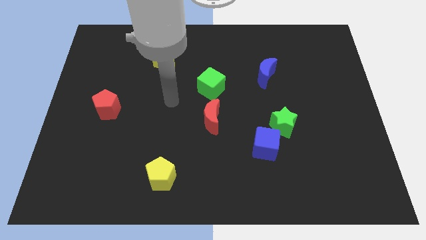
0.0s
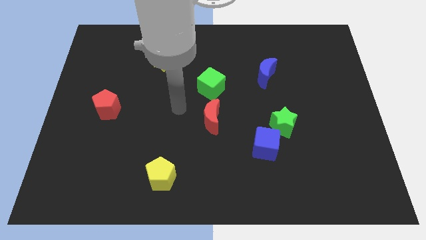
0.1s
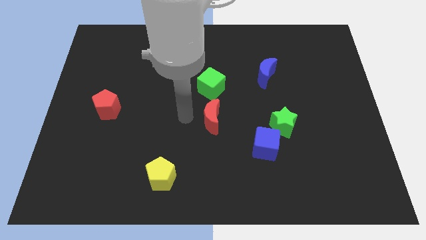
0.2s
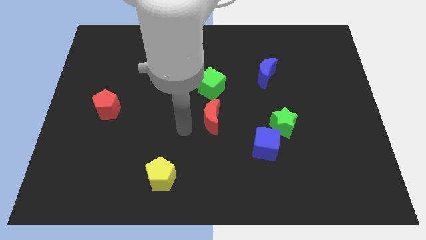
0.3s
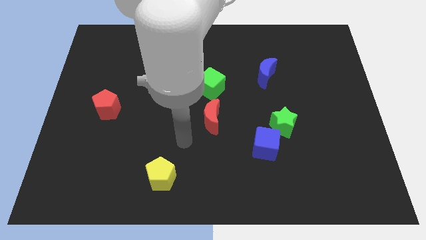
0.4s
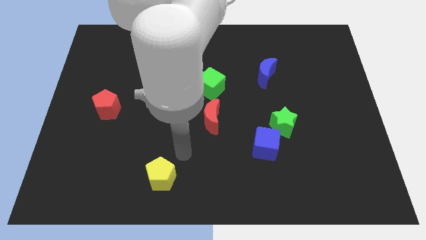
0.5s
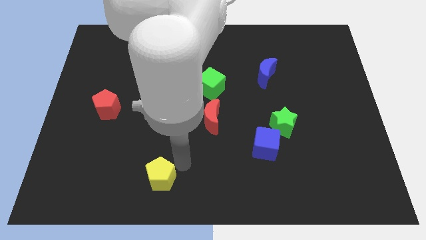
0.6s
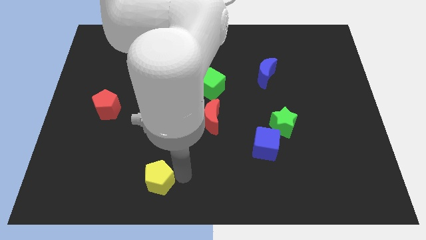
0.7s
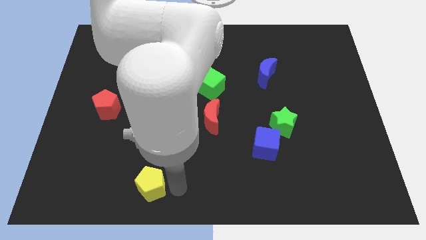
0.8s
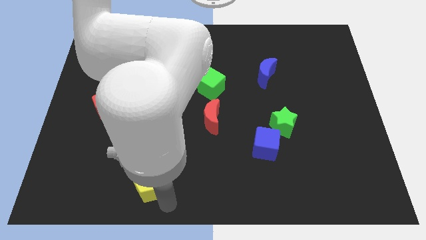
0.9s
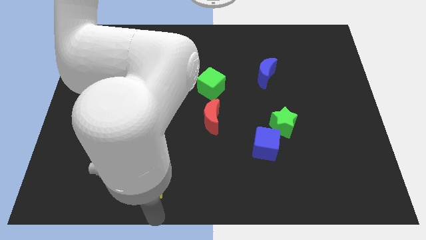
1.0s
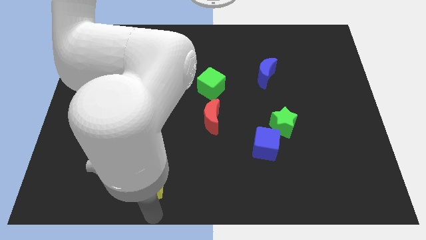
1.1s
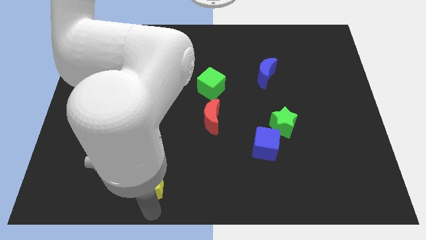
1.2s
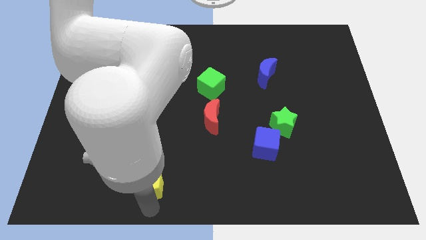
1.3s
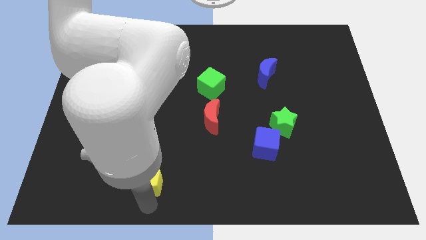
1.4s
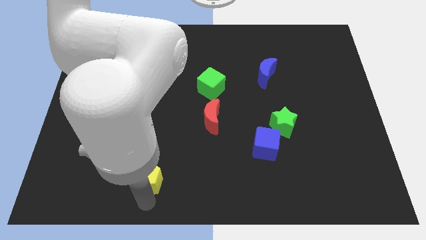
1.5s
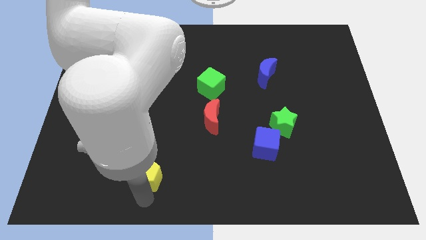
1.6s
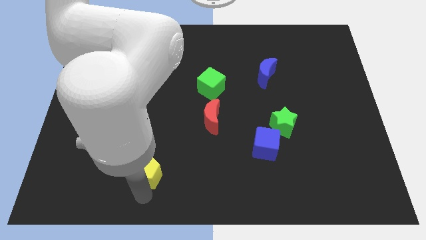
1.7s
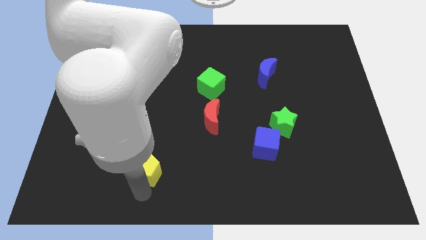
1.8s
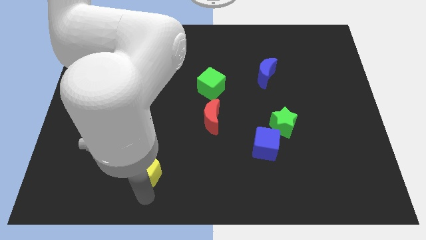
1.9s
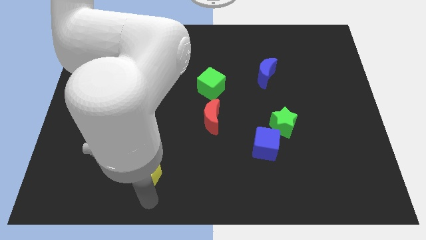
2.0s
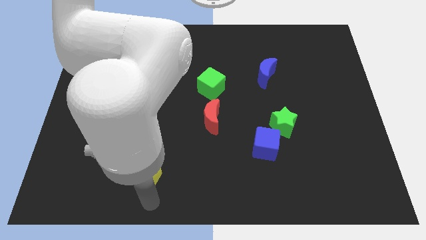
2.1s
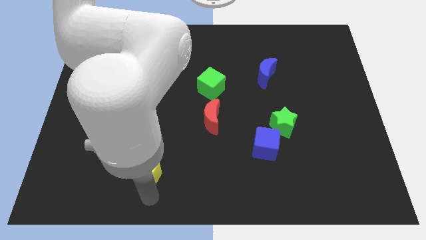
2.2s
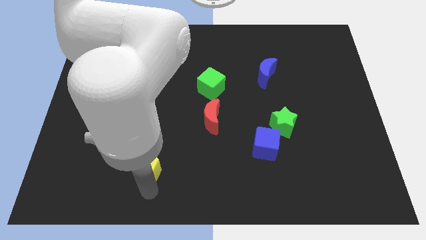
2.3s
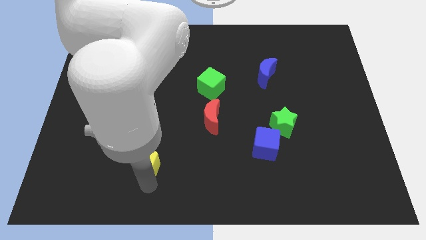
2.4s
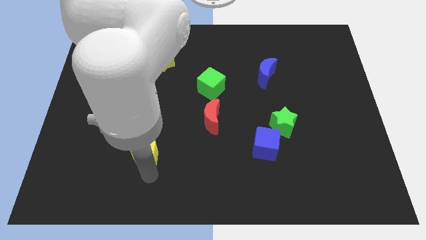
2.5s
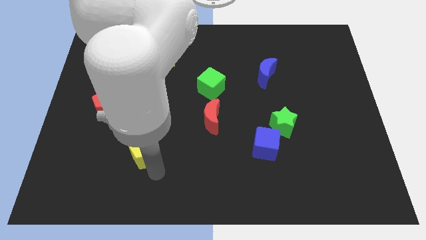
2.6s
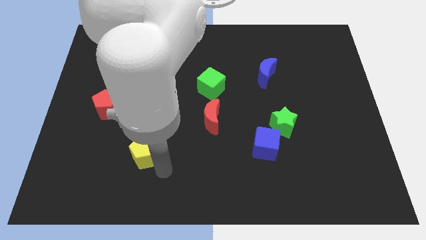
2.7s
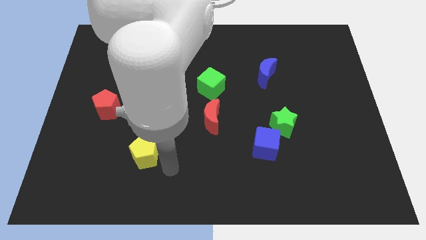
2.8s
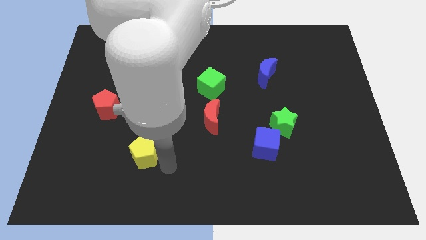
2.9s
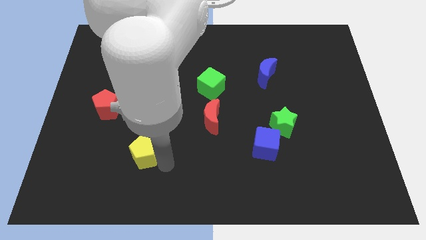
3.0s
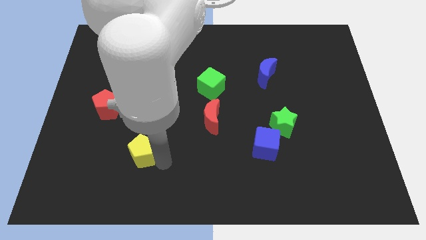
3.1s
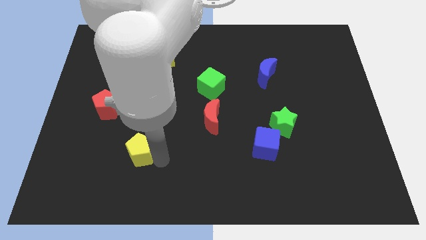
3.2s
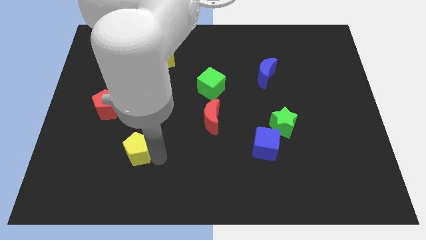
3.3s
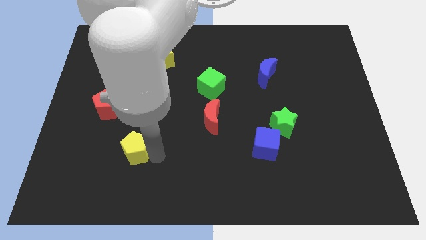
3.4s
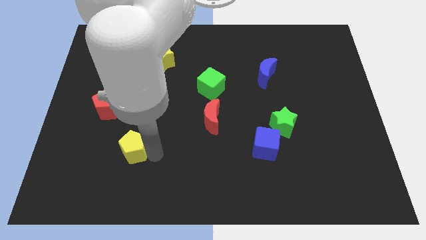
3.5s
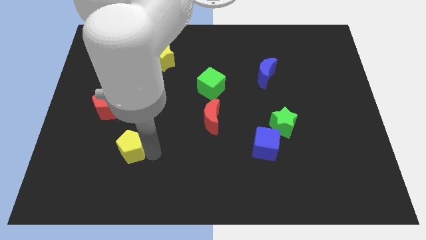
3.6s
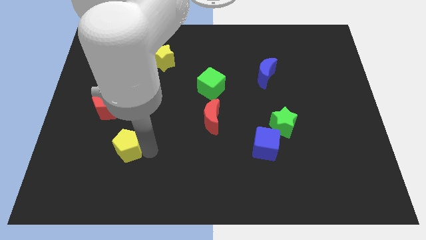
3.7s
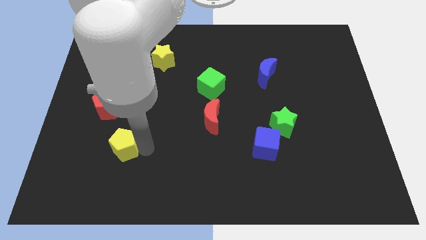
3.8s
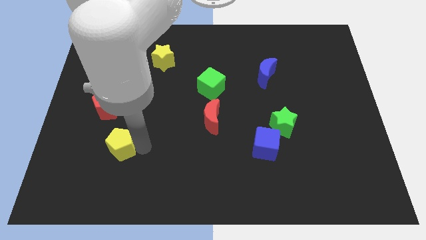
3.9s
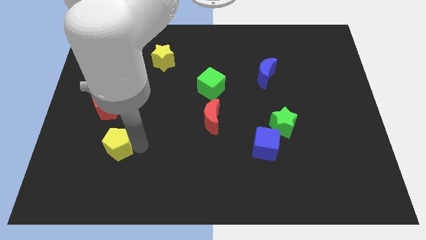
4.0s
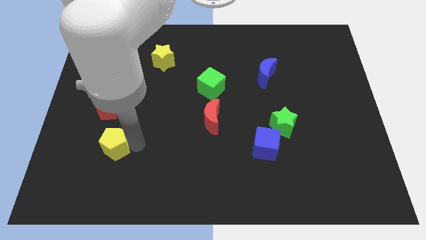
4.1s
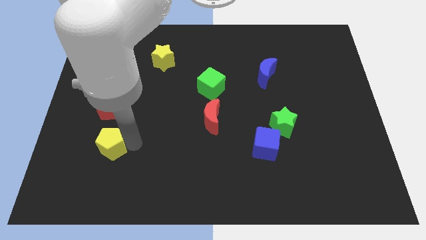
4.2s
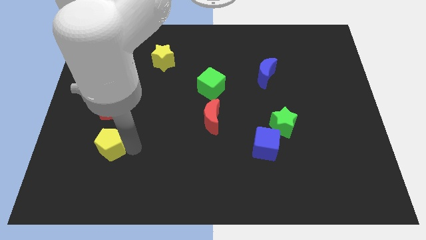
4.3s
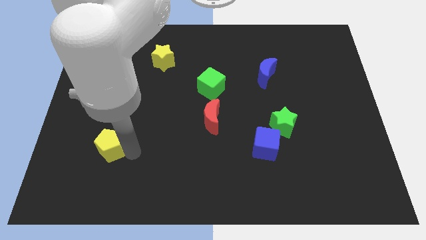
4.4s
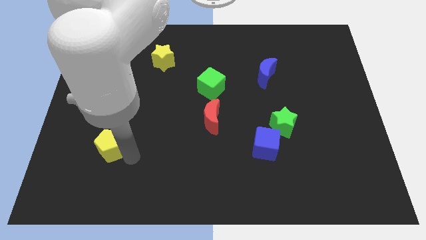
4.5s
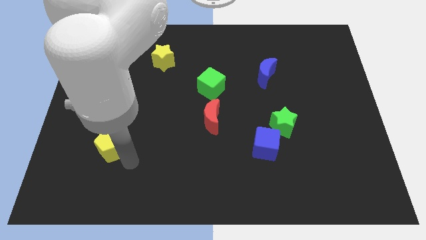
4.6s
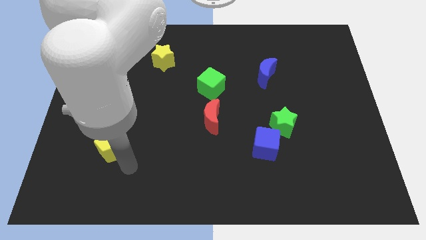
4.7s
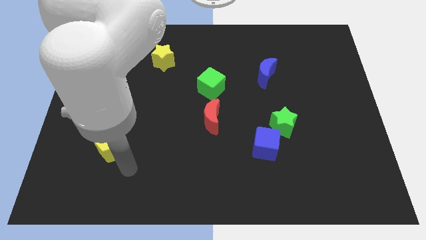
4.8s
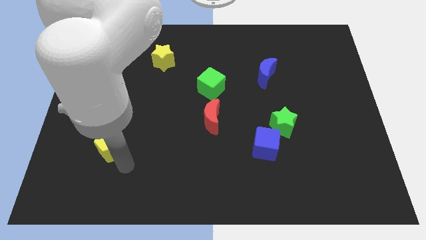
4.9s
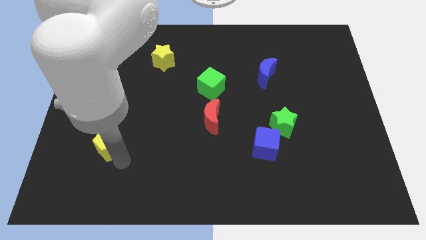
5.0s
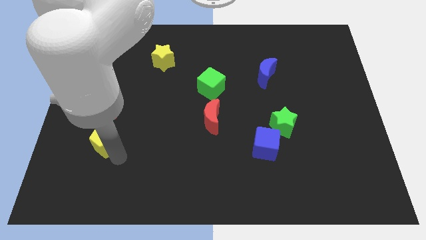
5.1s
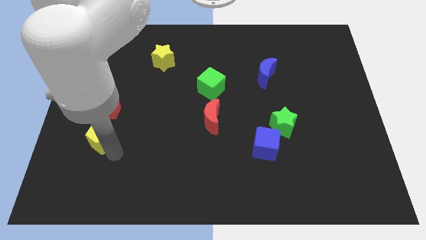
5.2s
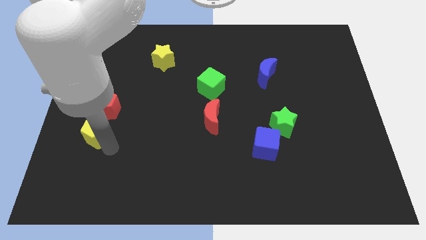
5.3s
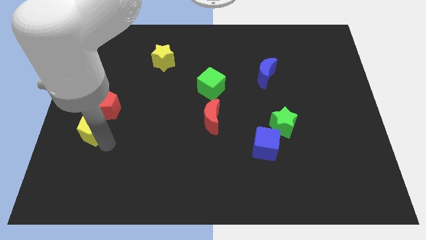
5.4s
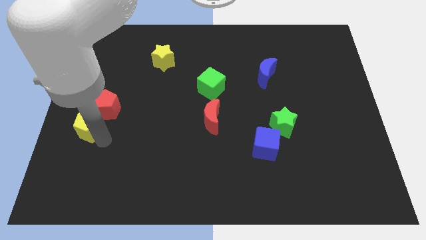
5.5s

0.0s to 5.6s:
put the yellow pentagon to the center left

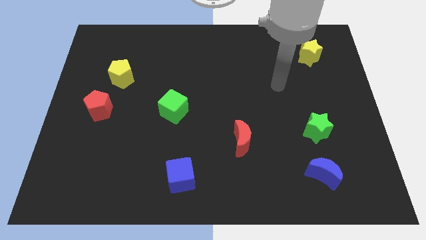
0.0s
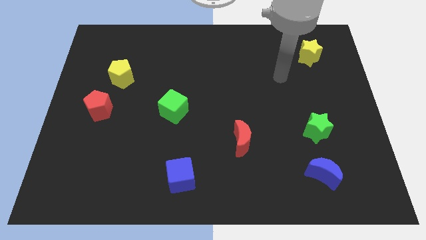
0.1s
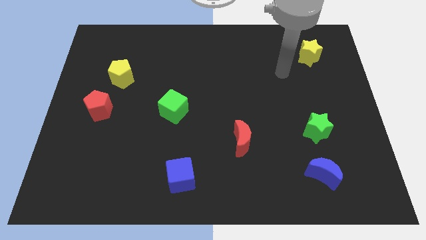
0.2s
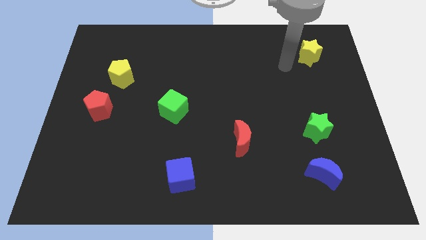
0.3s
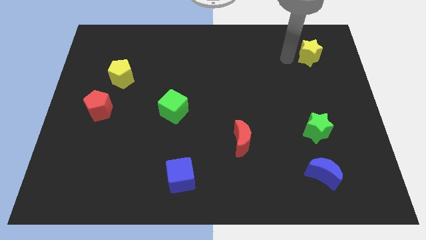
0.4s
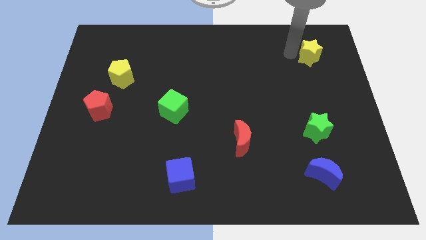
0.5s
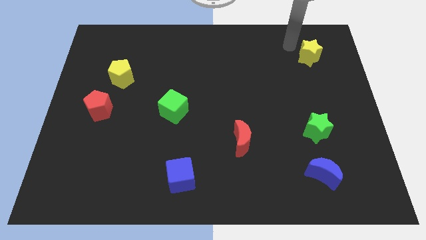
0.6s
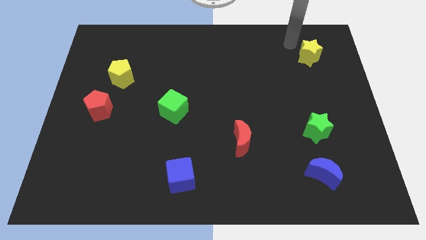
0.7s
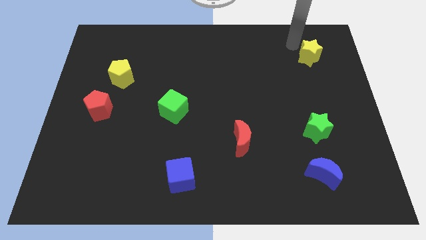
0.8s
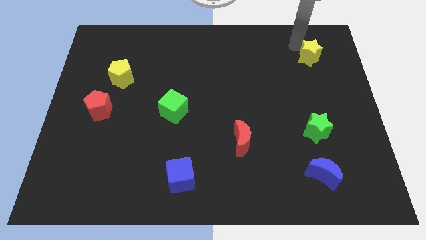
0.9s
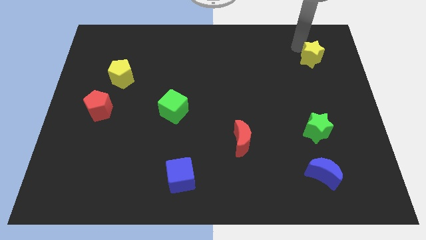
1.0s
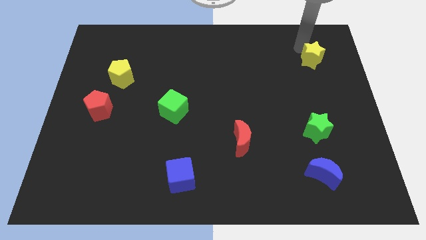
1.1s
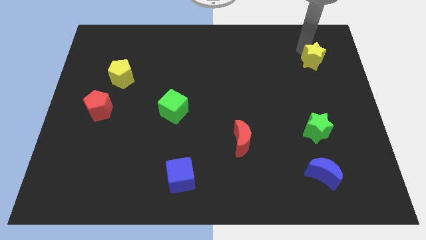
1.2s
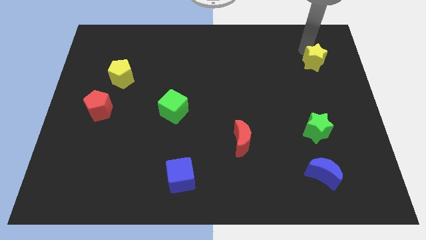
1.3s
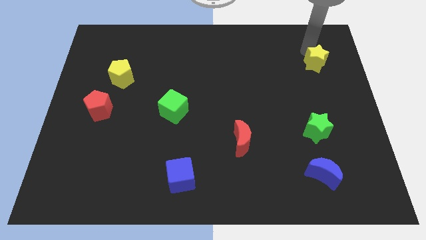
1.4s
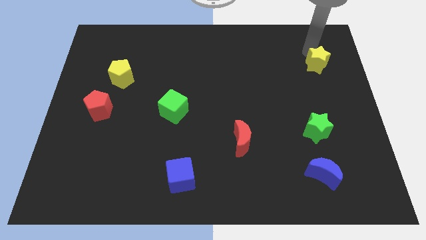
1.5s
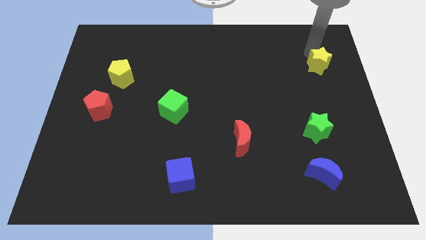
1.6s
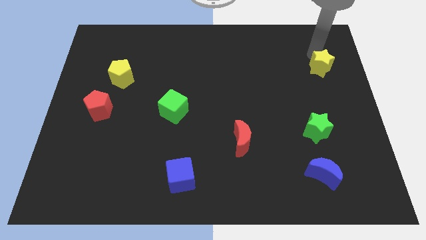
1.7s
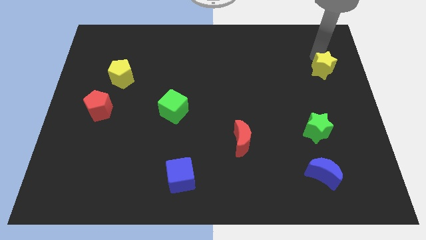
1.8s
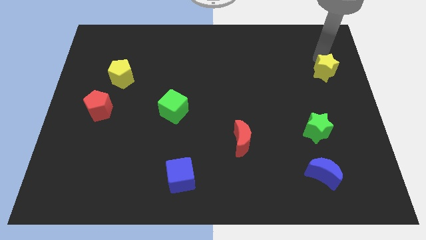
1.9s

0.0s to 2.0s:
slide the yellow star to the right side of the board

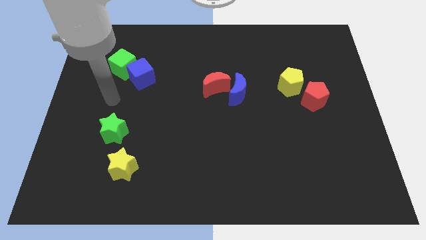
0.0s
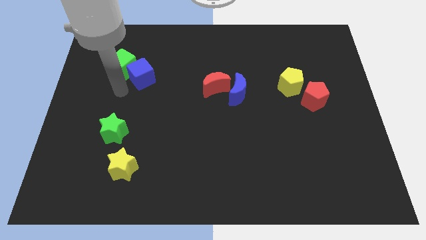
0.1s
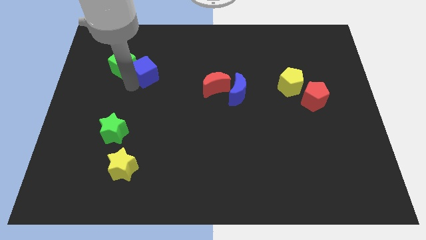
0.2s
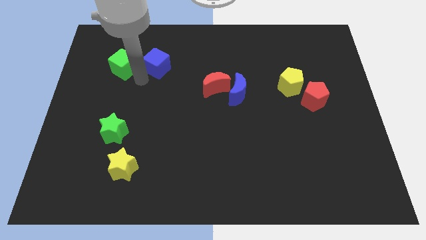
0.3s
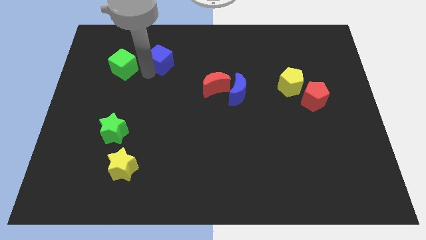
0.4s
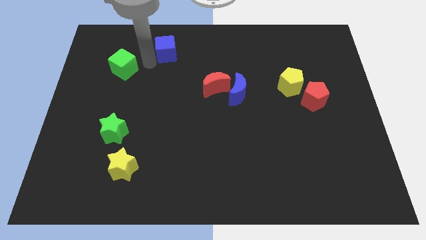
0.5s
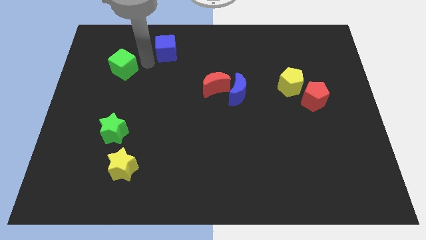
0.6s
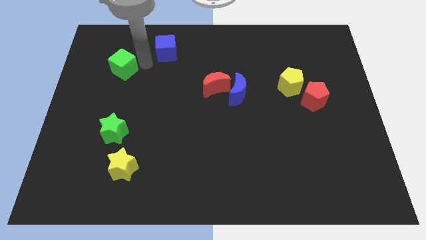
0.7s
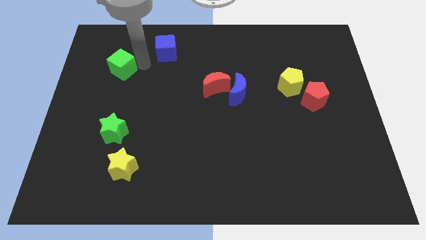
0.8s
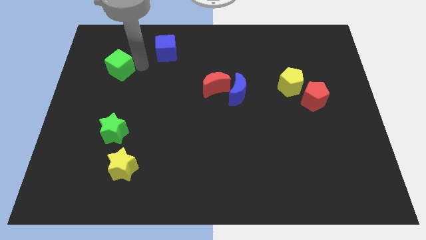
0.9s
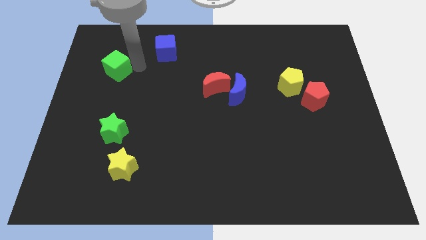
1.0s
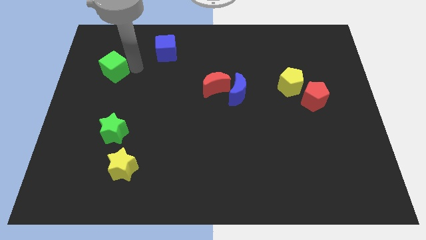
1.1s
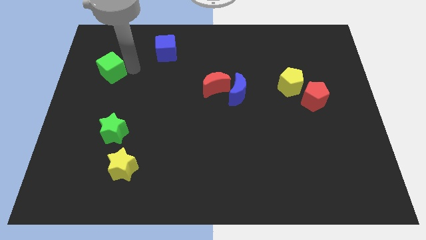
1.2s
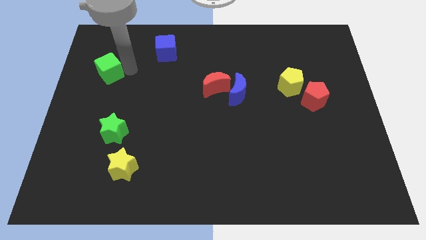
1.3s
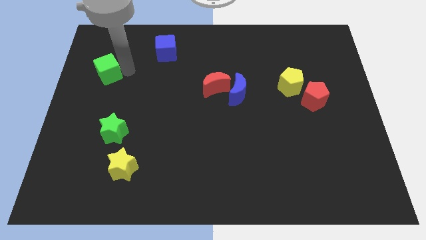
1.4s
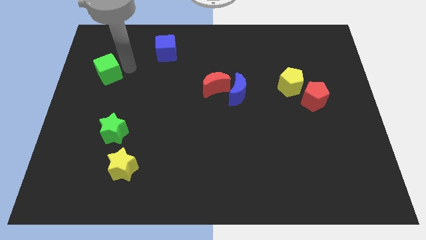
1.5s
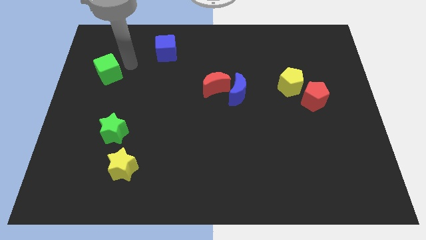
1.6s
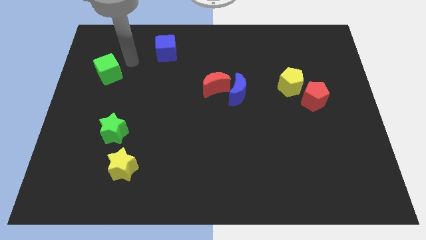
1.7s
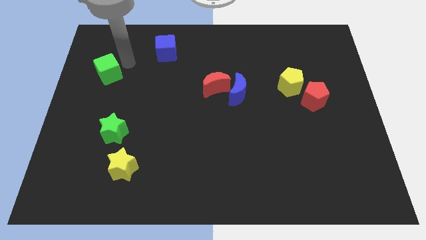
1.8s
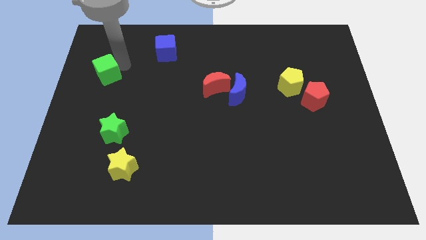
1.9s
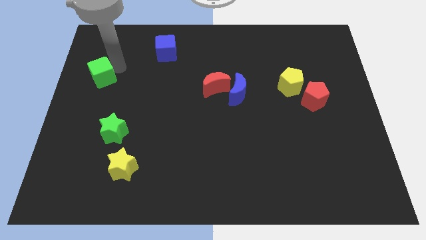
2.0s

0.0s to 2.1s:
put the green cube to the center left
